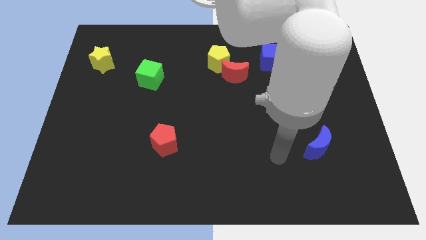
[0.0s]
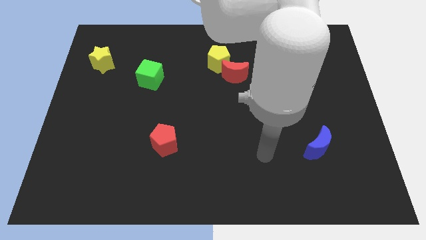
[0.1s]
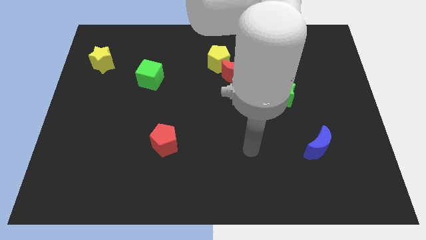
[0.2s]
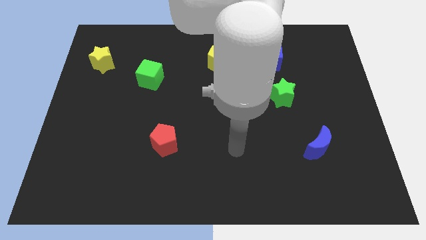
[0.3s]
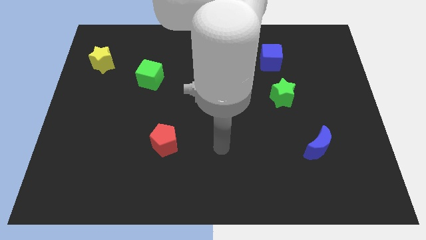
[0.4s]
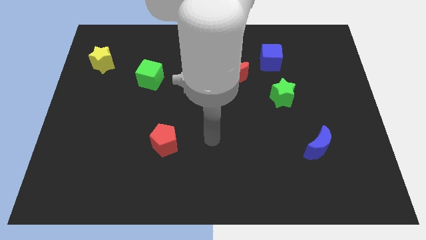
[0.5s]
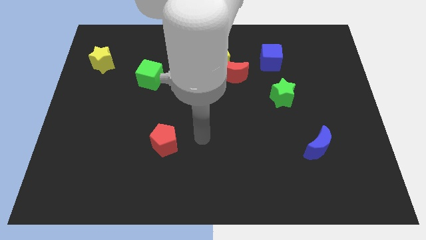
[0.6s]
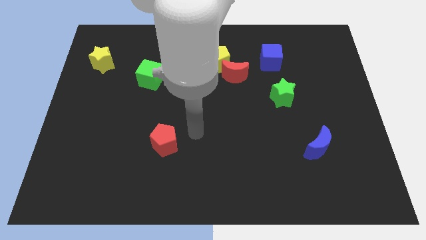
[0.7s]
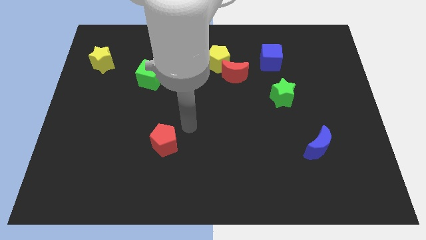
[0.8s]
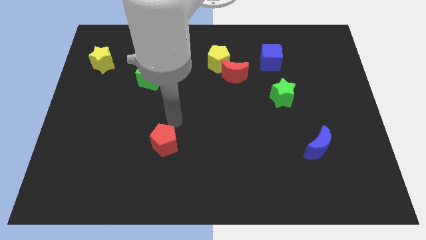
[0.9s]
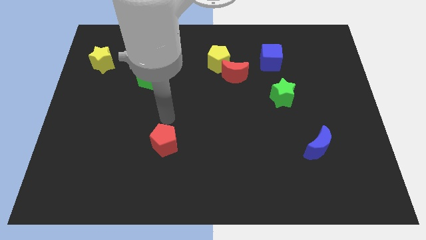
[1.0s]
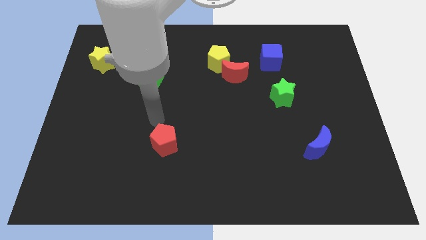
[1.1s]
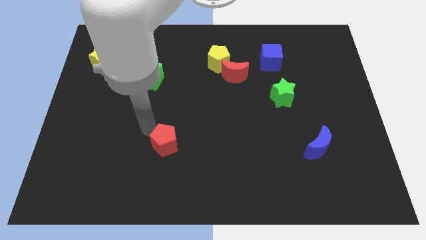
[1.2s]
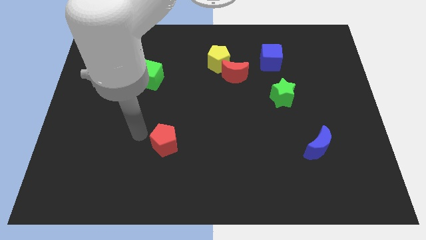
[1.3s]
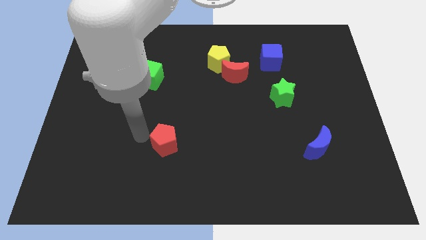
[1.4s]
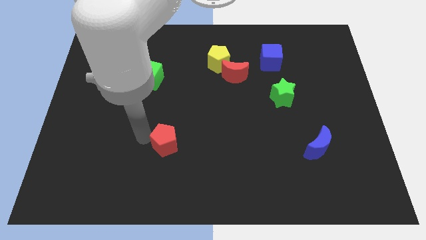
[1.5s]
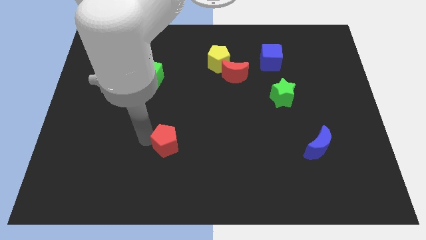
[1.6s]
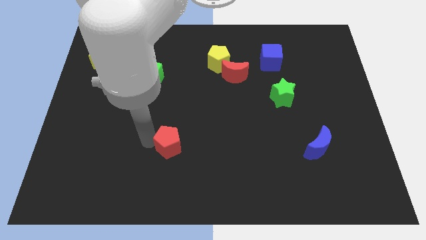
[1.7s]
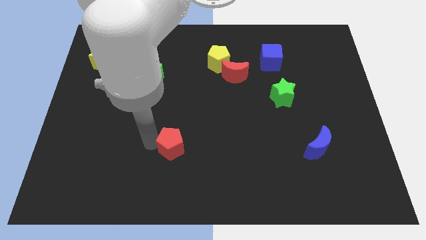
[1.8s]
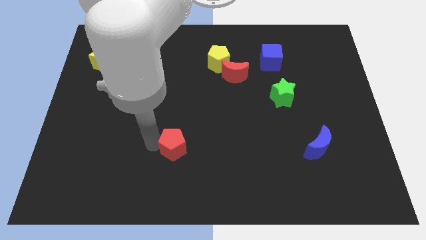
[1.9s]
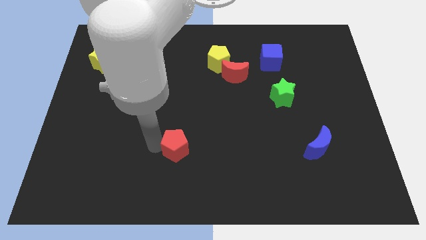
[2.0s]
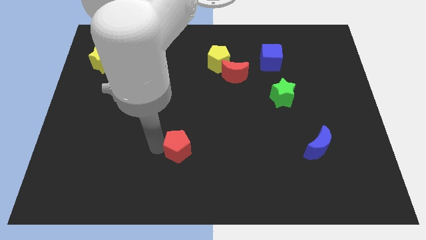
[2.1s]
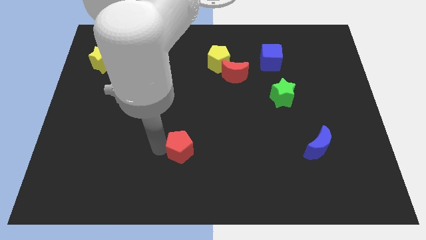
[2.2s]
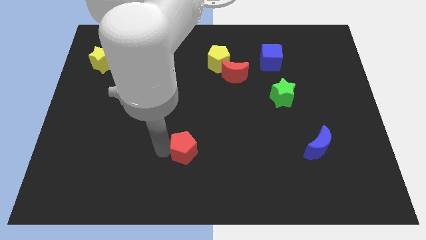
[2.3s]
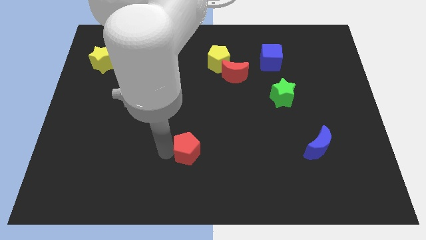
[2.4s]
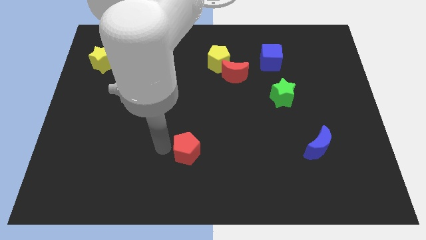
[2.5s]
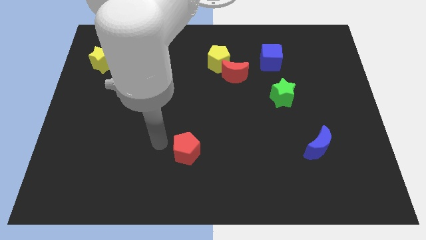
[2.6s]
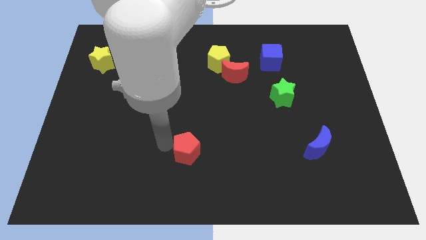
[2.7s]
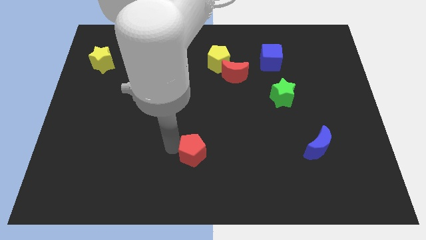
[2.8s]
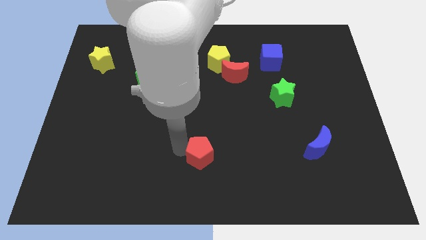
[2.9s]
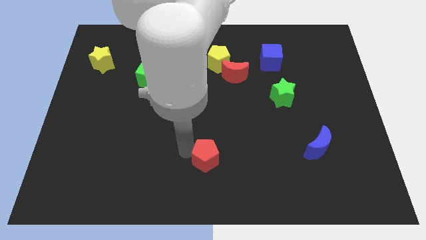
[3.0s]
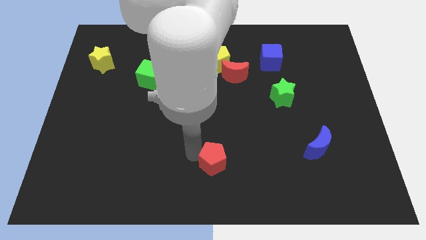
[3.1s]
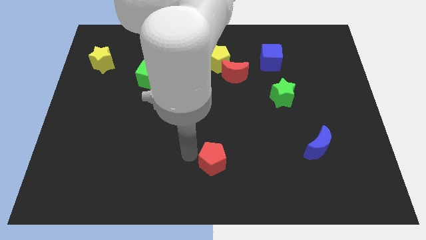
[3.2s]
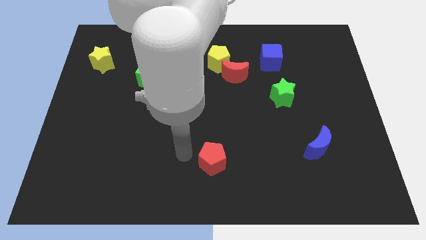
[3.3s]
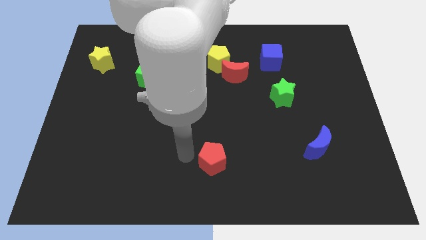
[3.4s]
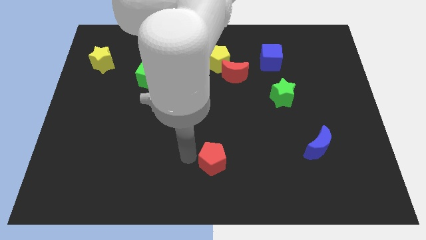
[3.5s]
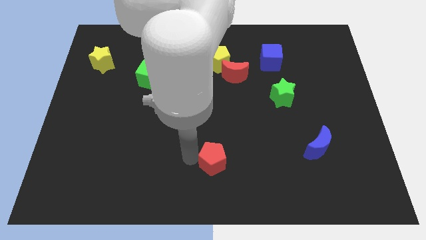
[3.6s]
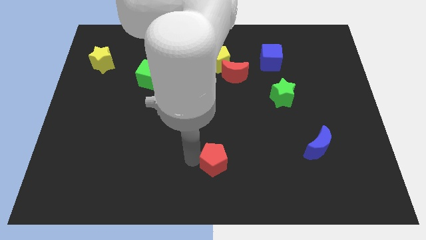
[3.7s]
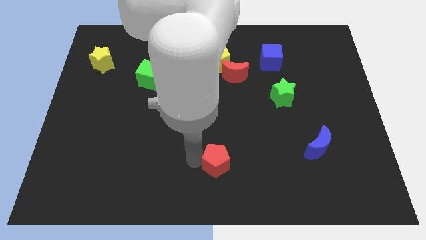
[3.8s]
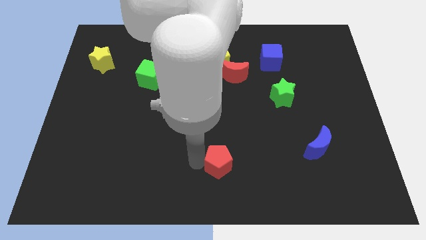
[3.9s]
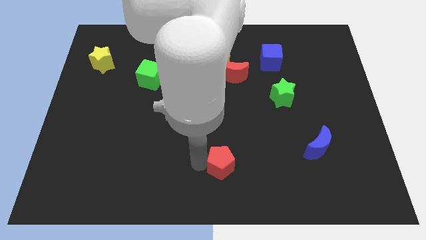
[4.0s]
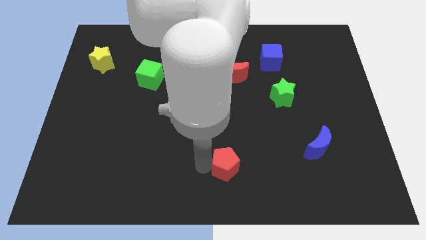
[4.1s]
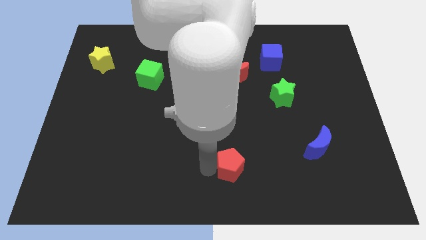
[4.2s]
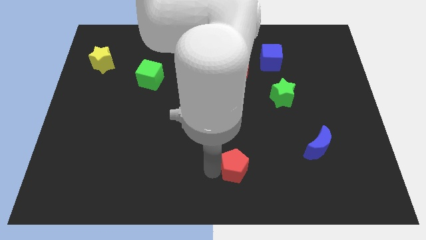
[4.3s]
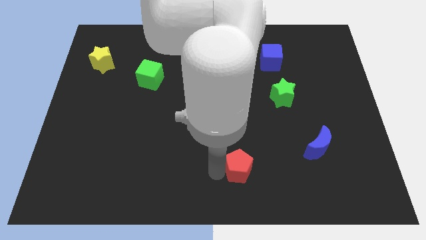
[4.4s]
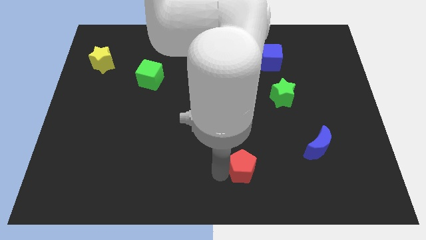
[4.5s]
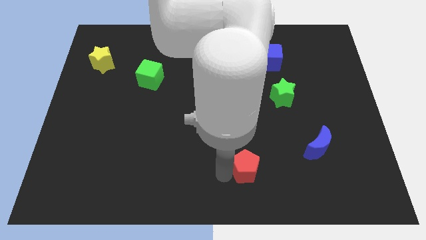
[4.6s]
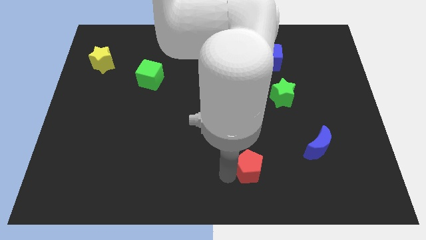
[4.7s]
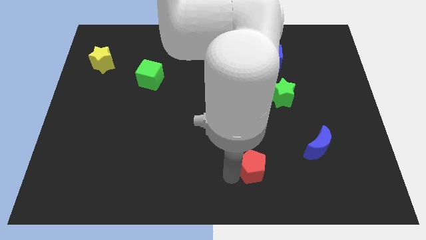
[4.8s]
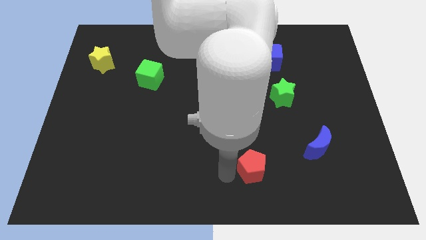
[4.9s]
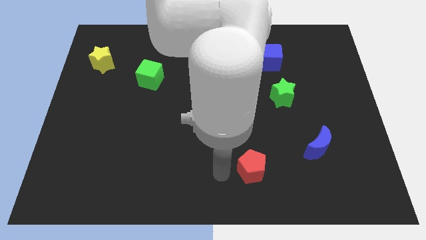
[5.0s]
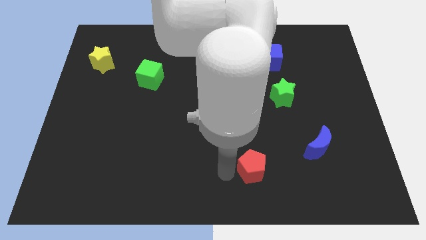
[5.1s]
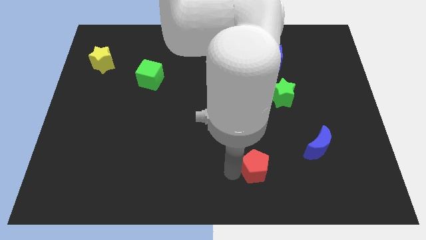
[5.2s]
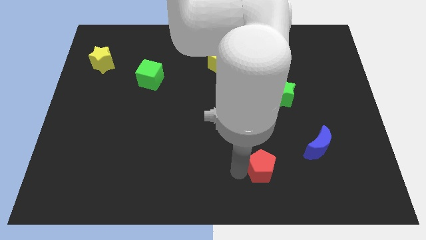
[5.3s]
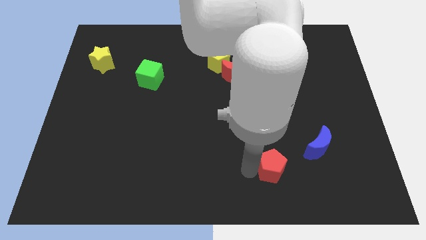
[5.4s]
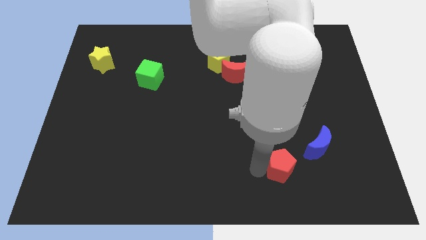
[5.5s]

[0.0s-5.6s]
push the red pentagon to the bottom left side of the blue moon

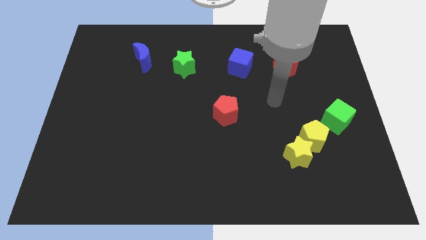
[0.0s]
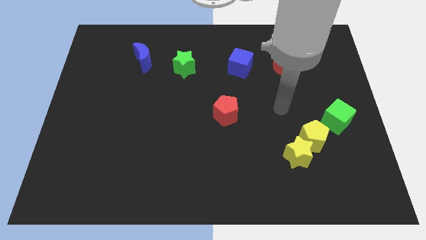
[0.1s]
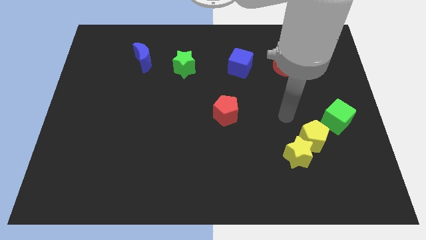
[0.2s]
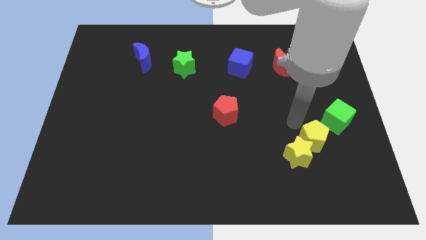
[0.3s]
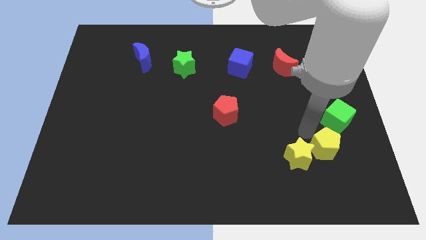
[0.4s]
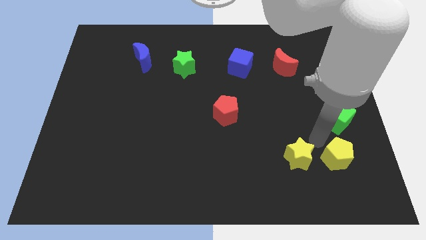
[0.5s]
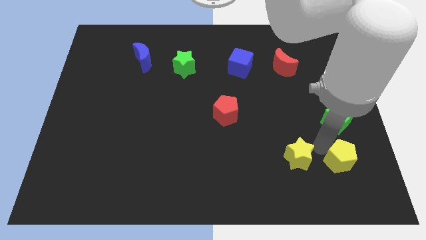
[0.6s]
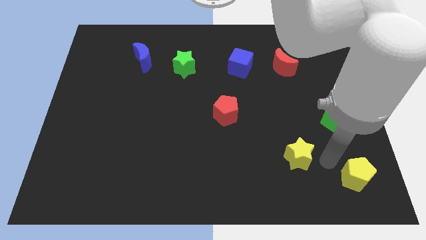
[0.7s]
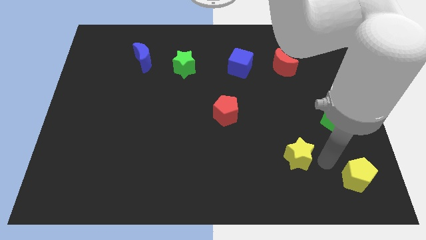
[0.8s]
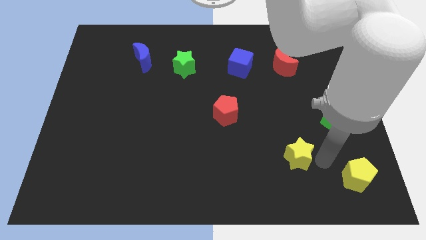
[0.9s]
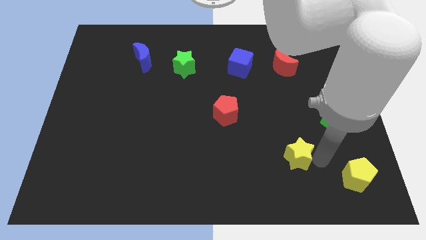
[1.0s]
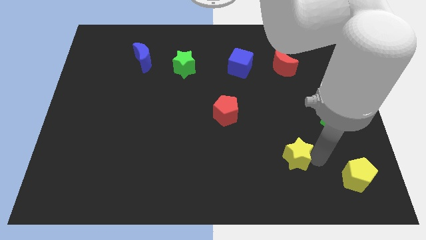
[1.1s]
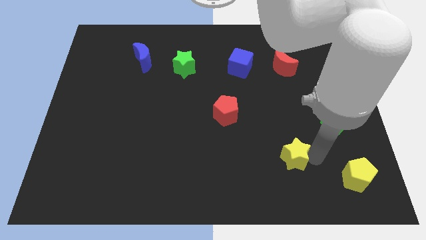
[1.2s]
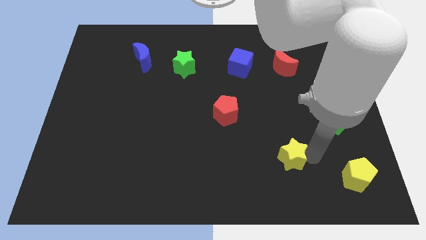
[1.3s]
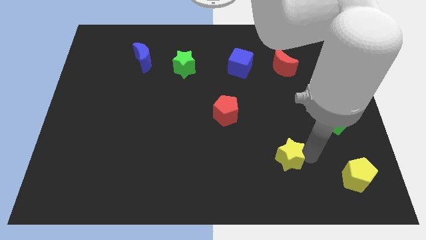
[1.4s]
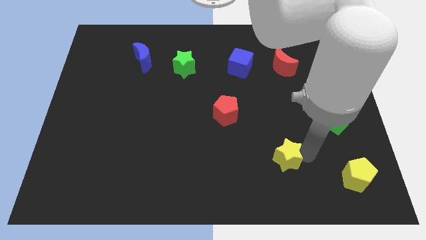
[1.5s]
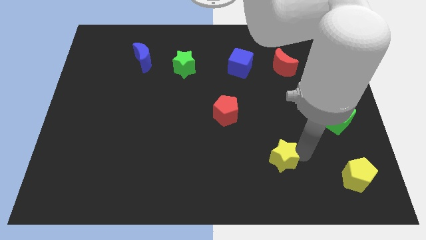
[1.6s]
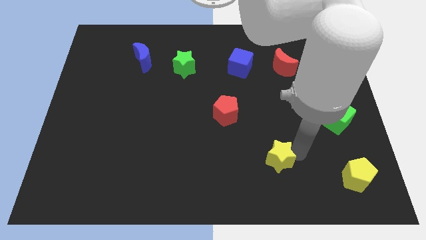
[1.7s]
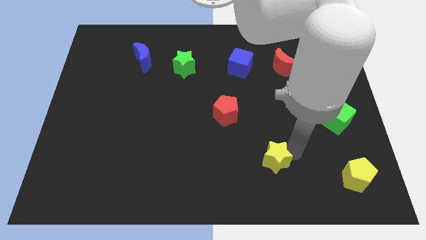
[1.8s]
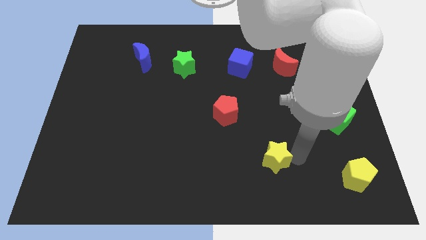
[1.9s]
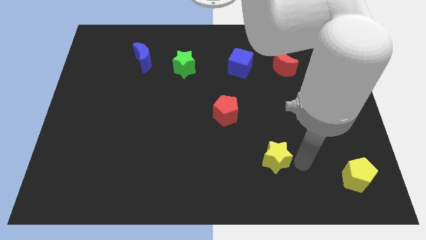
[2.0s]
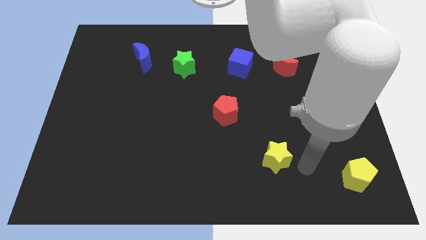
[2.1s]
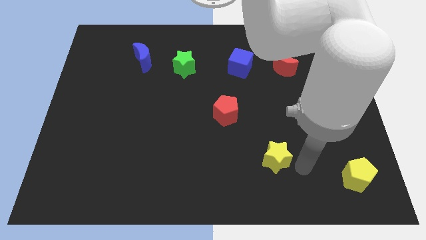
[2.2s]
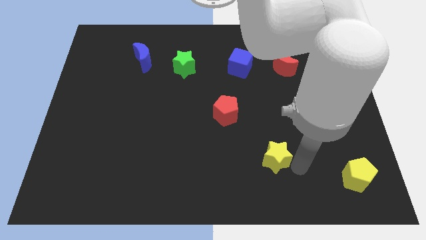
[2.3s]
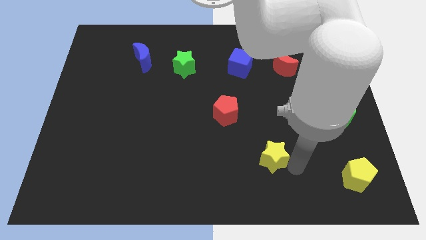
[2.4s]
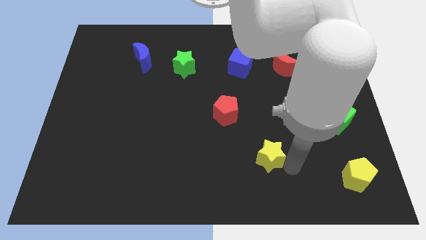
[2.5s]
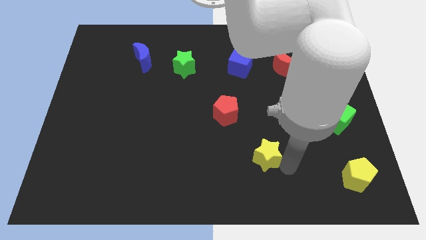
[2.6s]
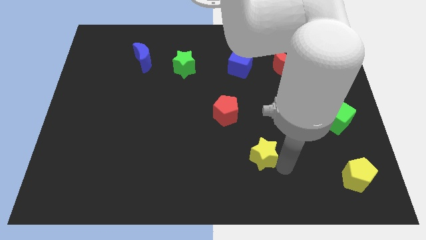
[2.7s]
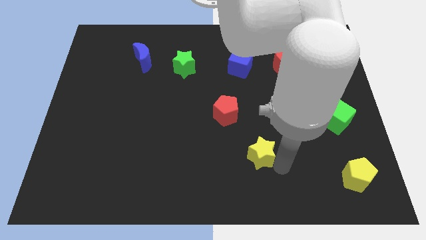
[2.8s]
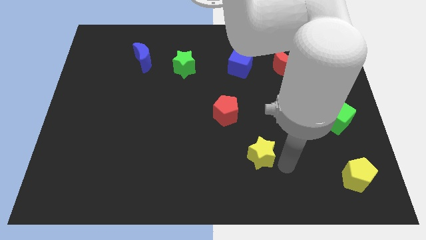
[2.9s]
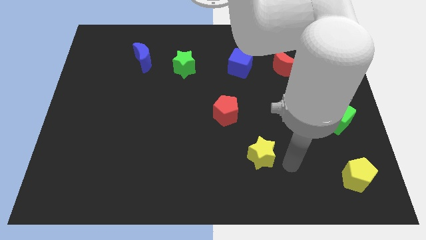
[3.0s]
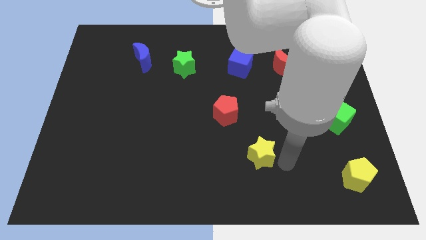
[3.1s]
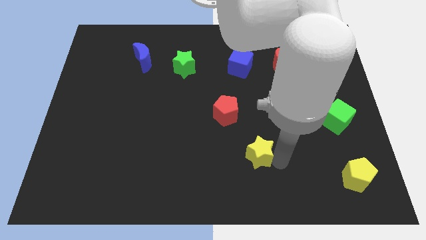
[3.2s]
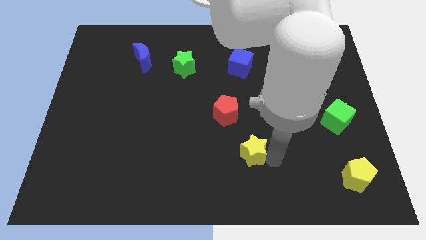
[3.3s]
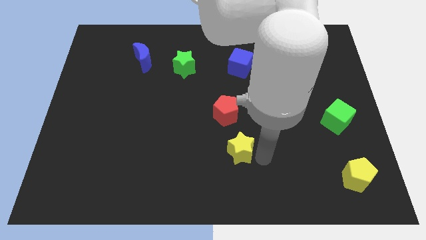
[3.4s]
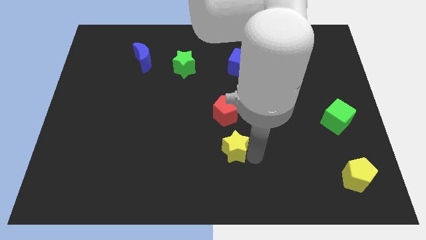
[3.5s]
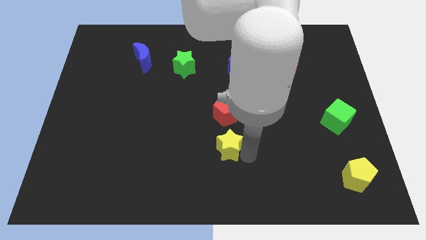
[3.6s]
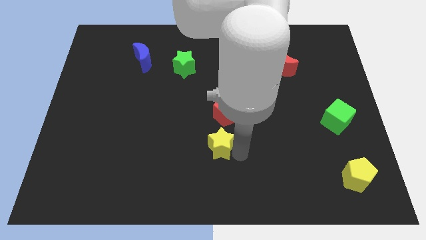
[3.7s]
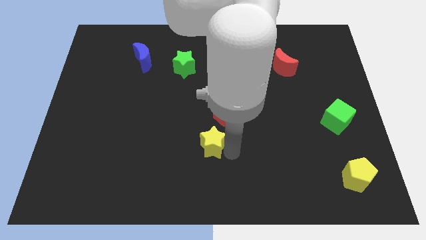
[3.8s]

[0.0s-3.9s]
put the yellow star to the bottom left side of the red pentagon
